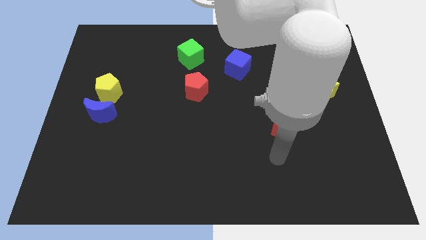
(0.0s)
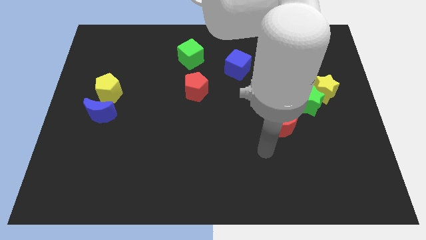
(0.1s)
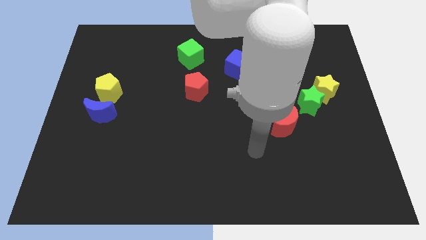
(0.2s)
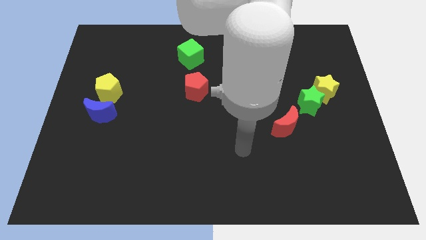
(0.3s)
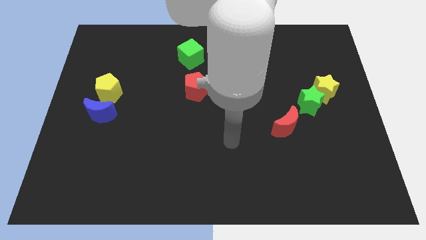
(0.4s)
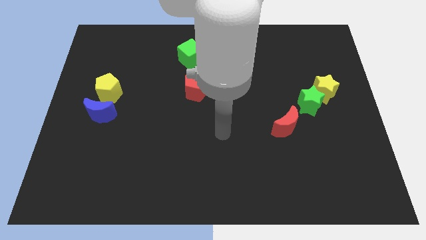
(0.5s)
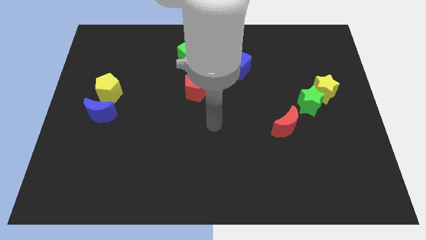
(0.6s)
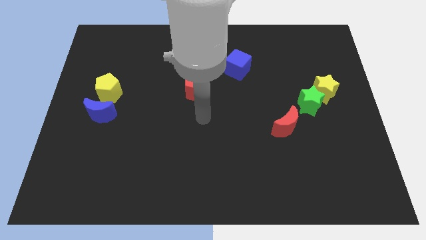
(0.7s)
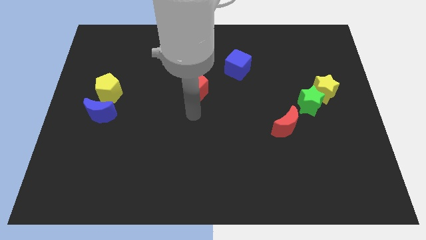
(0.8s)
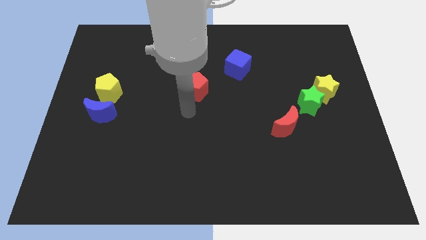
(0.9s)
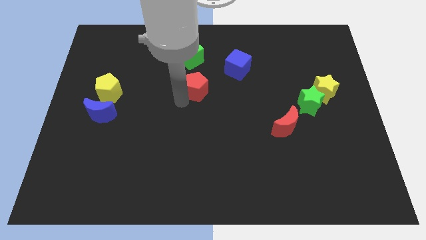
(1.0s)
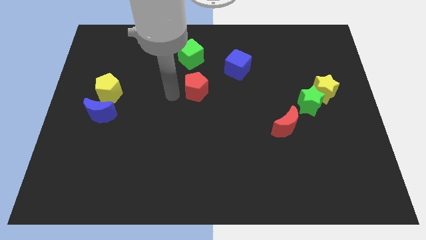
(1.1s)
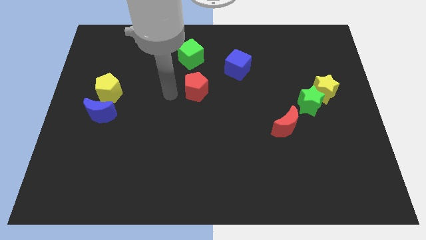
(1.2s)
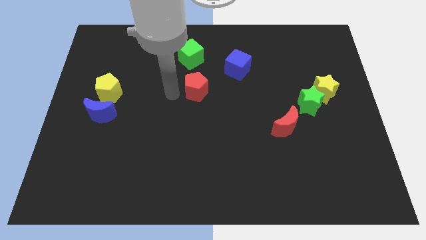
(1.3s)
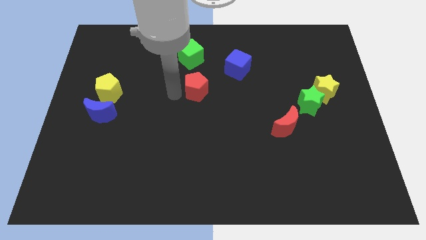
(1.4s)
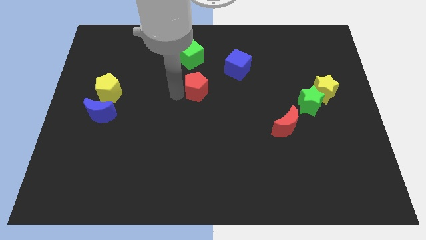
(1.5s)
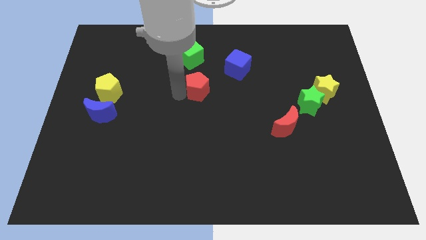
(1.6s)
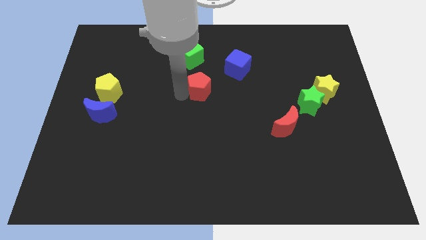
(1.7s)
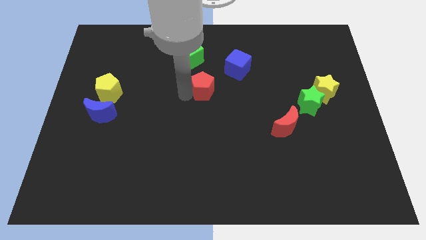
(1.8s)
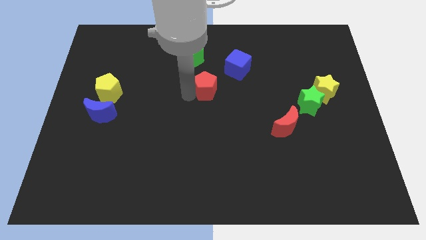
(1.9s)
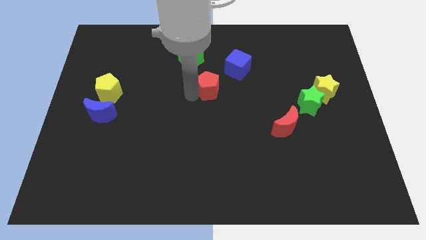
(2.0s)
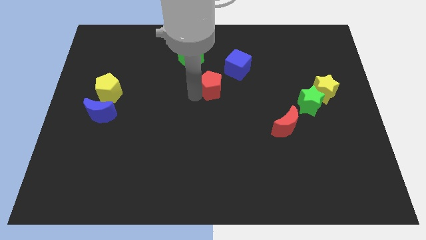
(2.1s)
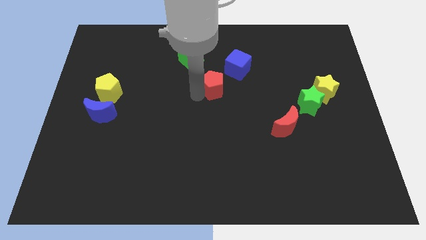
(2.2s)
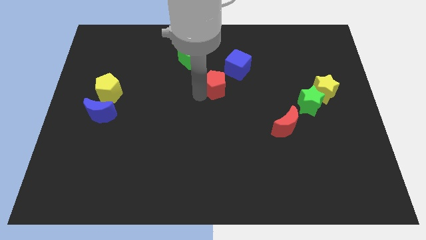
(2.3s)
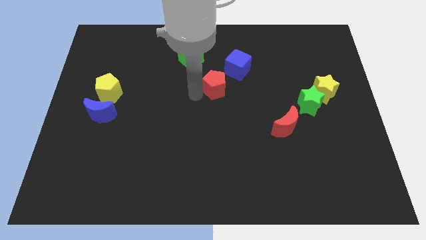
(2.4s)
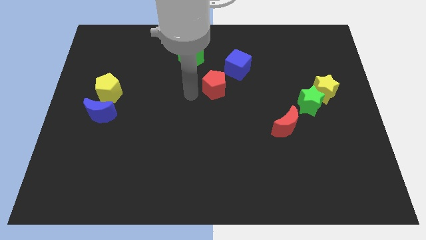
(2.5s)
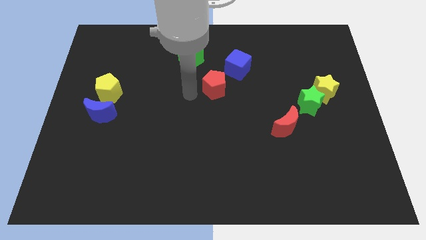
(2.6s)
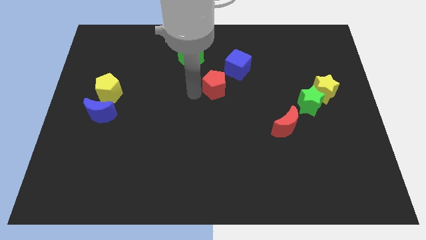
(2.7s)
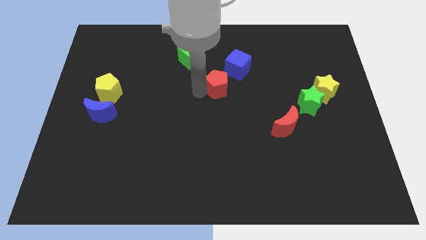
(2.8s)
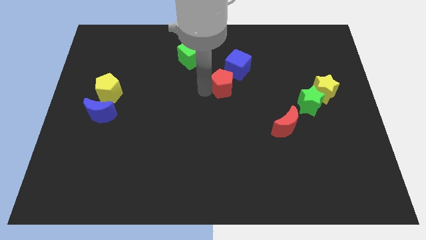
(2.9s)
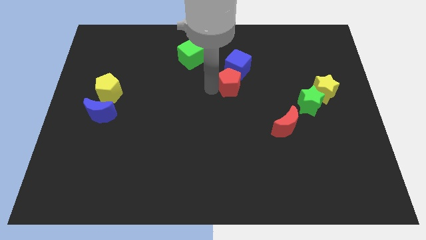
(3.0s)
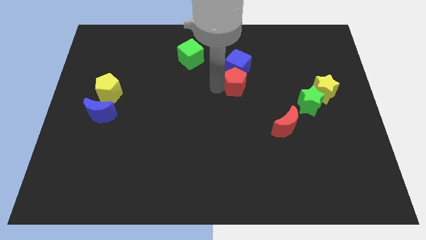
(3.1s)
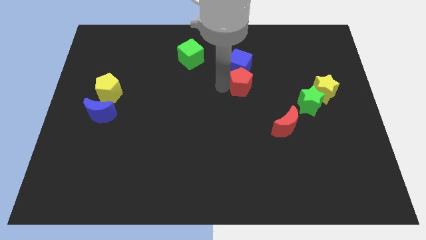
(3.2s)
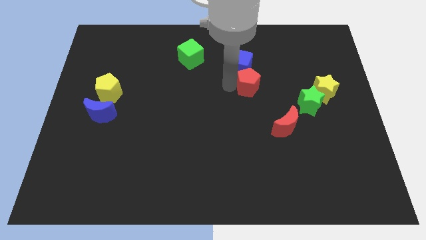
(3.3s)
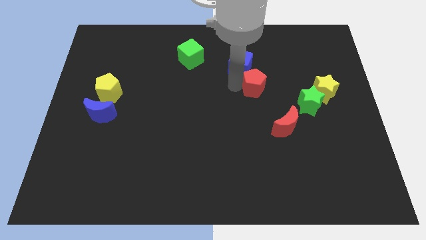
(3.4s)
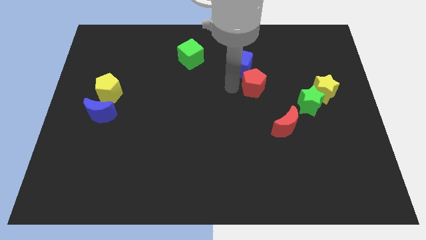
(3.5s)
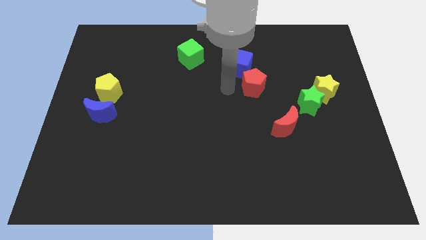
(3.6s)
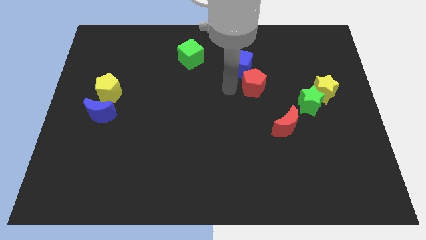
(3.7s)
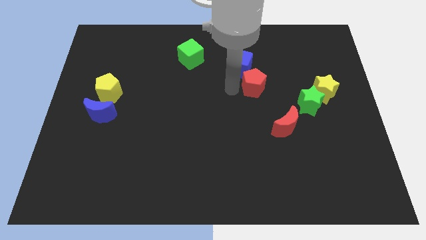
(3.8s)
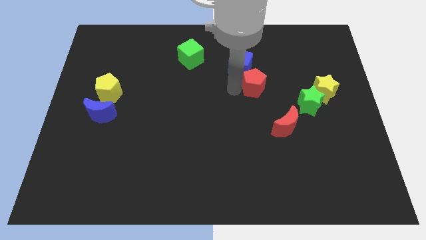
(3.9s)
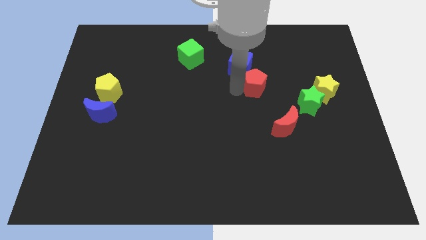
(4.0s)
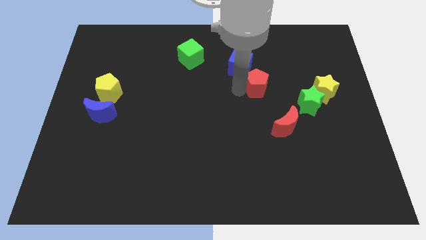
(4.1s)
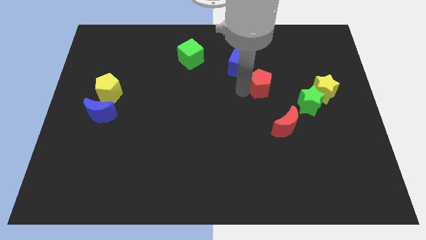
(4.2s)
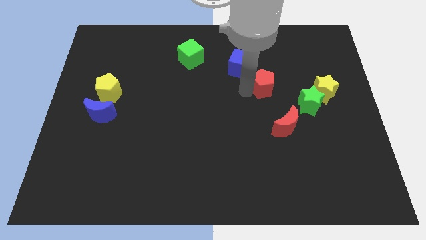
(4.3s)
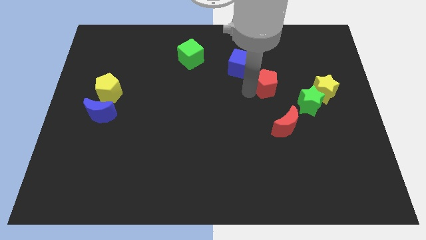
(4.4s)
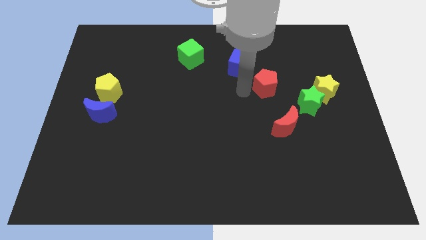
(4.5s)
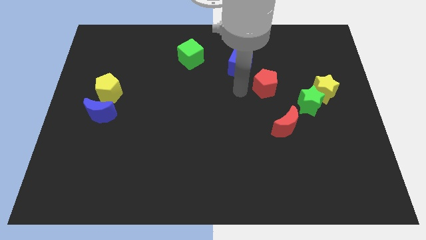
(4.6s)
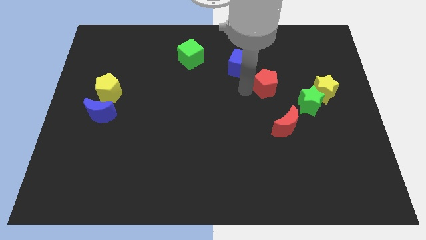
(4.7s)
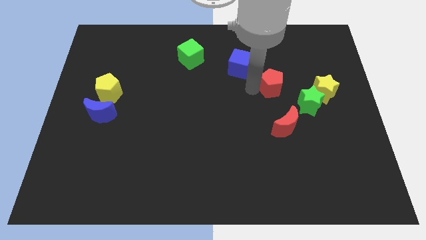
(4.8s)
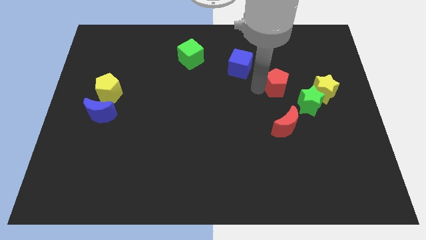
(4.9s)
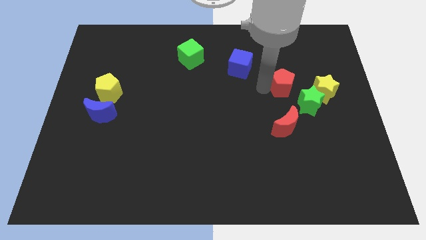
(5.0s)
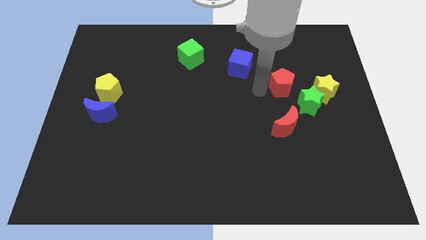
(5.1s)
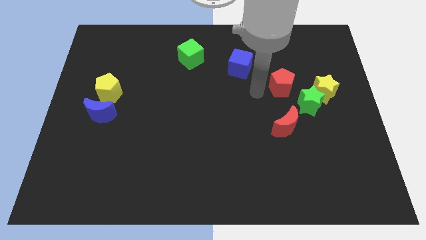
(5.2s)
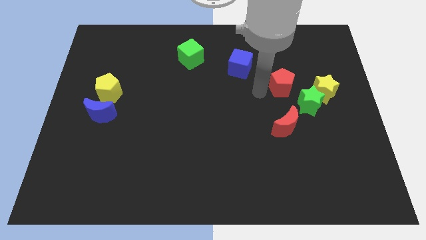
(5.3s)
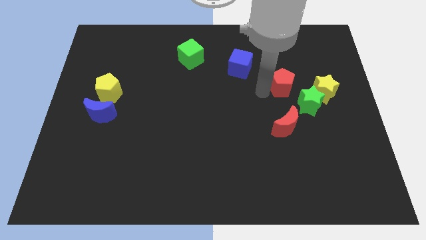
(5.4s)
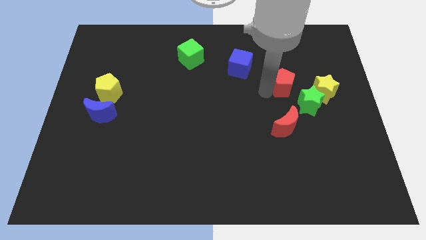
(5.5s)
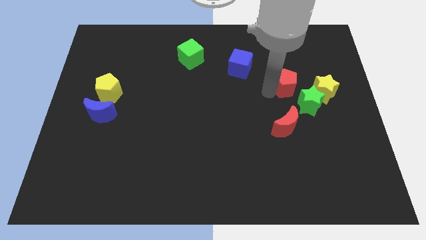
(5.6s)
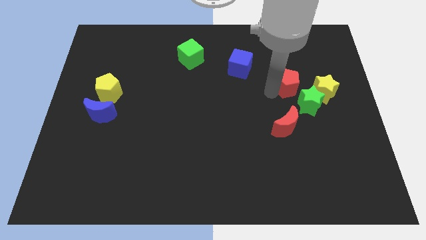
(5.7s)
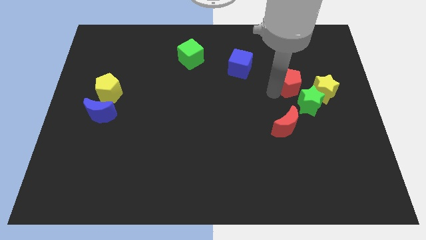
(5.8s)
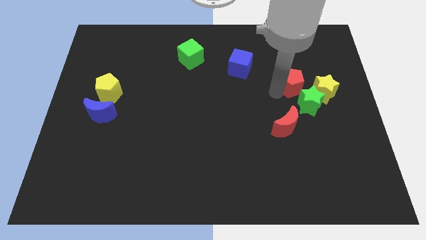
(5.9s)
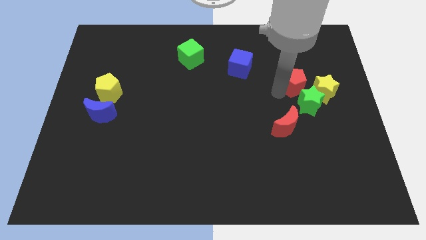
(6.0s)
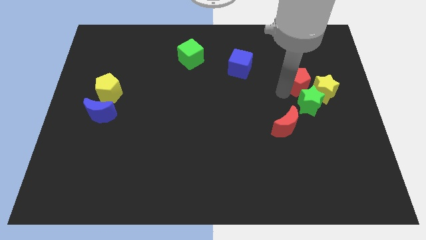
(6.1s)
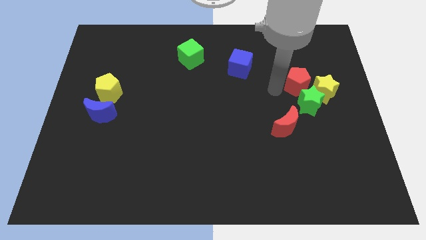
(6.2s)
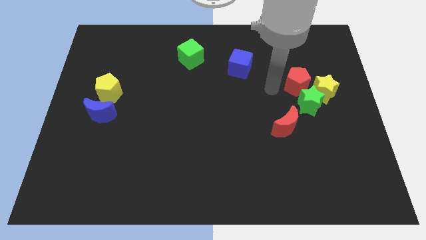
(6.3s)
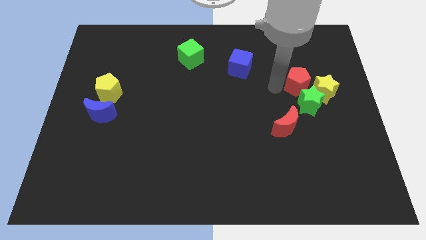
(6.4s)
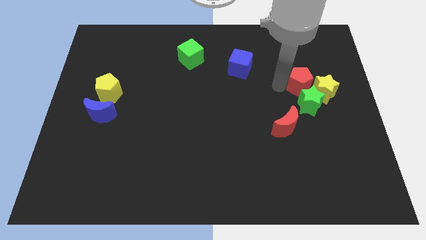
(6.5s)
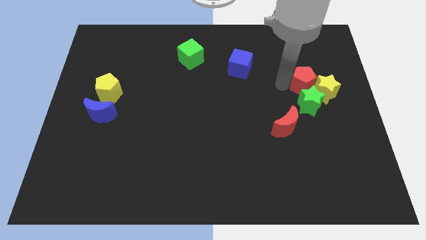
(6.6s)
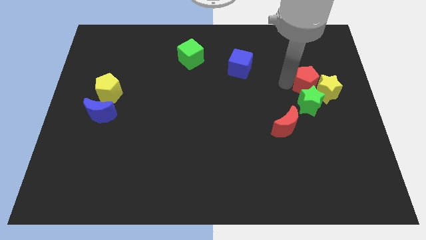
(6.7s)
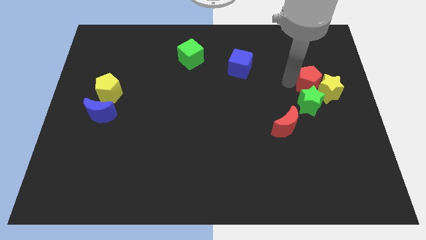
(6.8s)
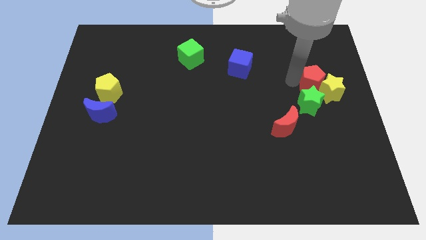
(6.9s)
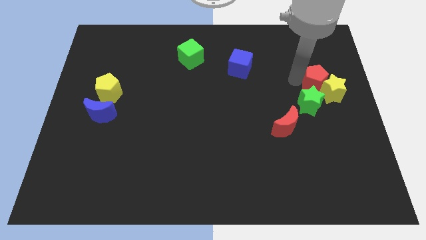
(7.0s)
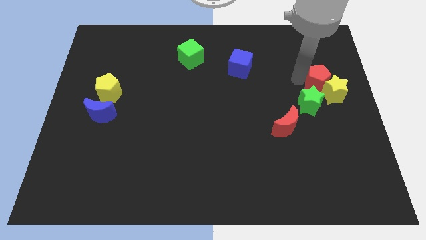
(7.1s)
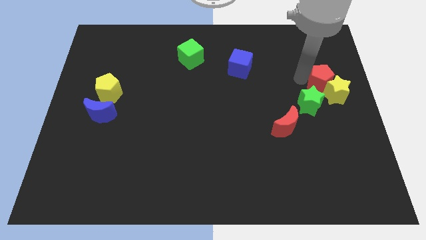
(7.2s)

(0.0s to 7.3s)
put the red pentagon to the center right
